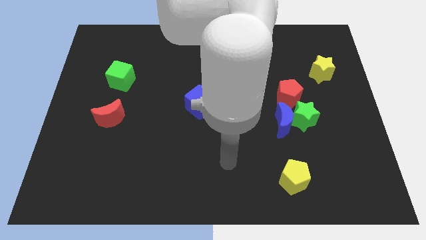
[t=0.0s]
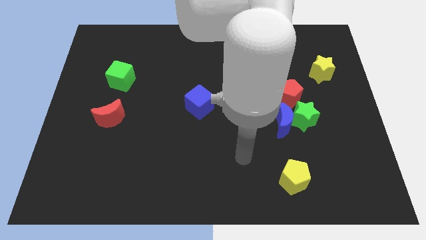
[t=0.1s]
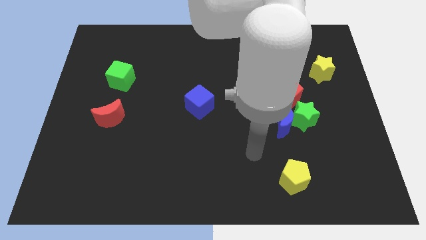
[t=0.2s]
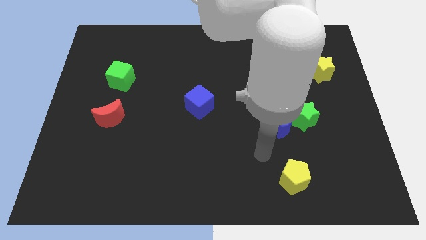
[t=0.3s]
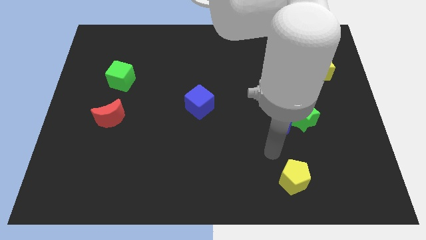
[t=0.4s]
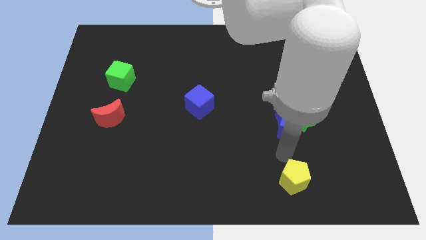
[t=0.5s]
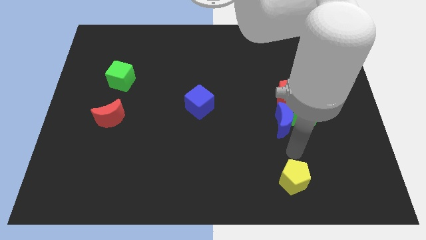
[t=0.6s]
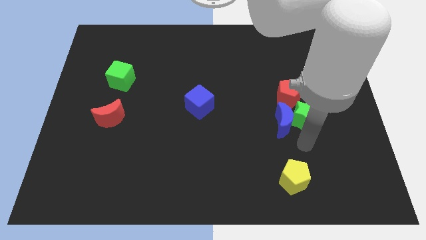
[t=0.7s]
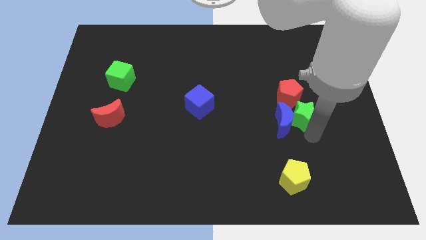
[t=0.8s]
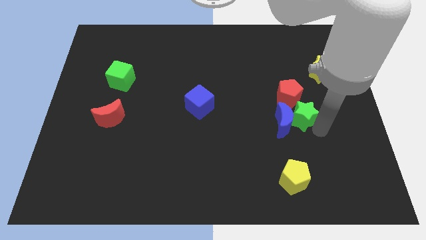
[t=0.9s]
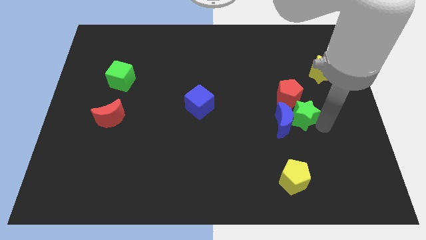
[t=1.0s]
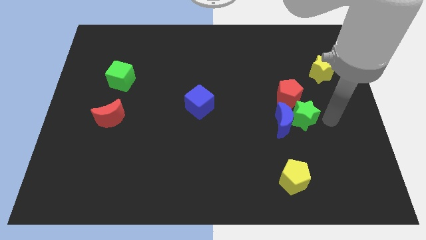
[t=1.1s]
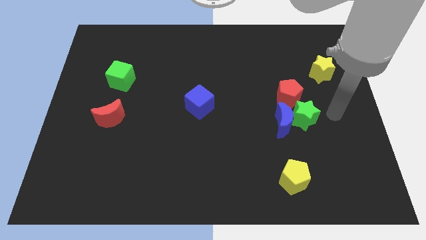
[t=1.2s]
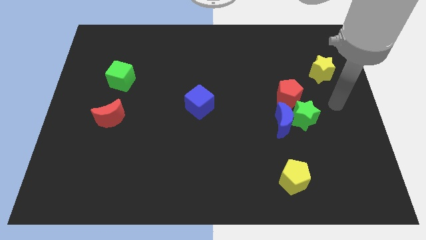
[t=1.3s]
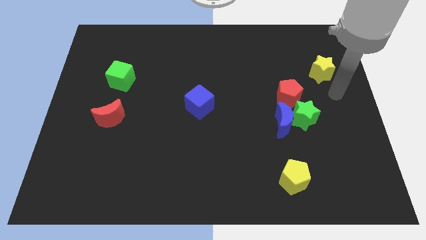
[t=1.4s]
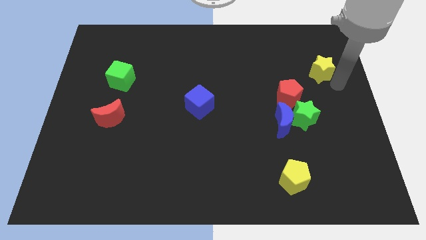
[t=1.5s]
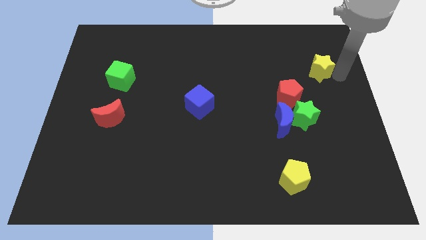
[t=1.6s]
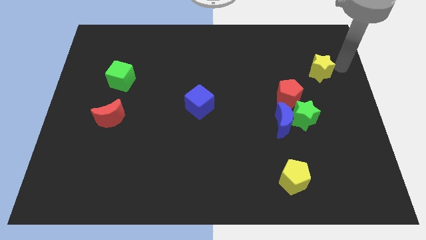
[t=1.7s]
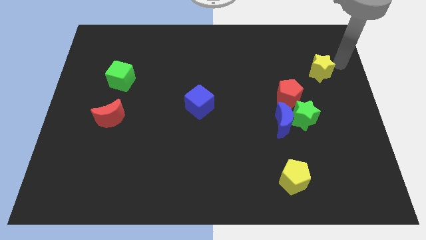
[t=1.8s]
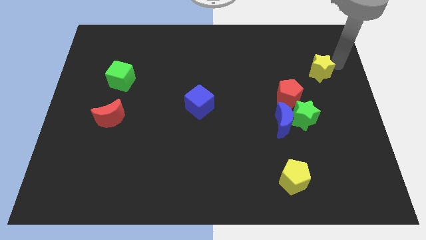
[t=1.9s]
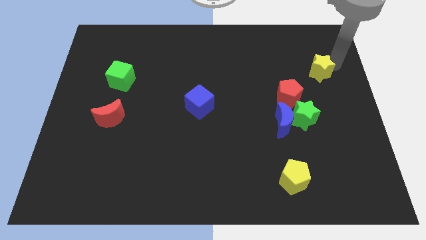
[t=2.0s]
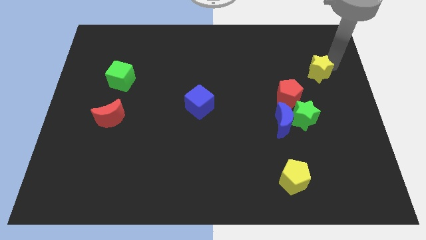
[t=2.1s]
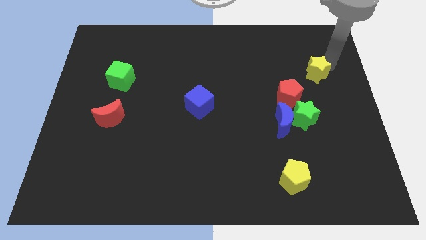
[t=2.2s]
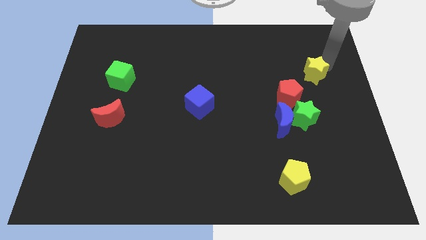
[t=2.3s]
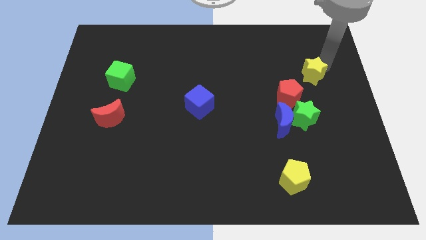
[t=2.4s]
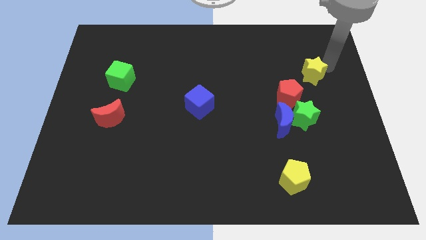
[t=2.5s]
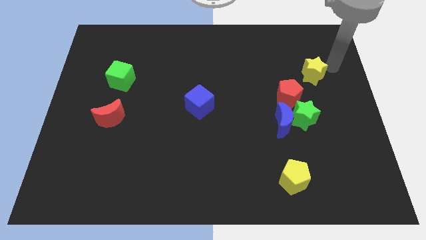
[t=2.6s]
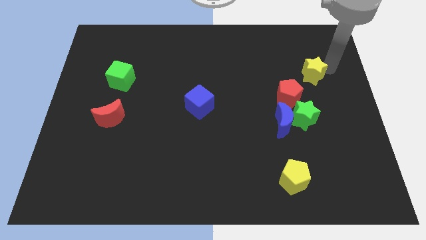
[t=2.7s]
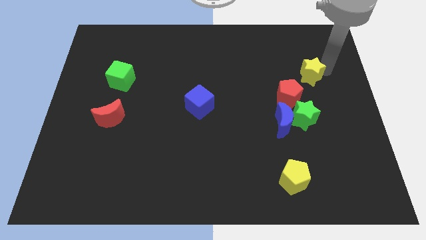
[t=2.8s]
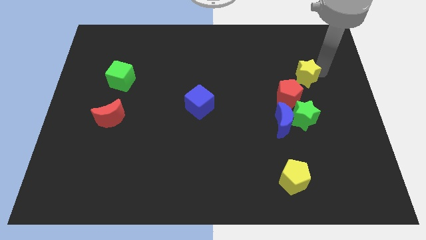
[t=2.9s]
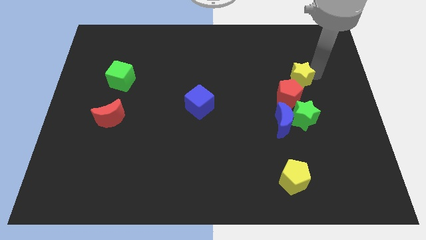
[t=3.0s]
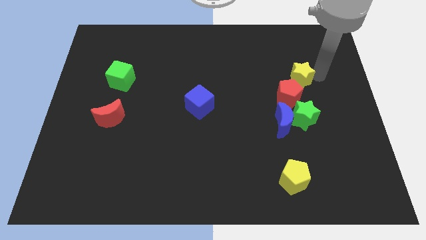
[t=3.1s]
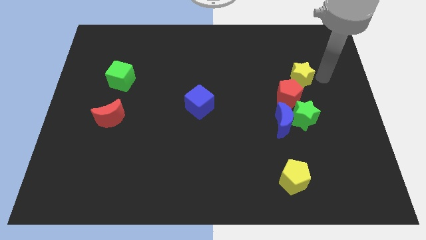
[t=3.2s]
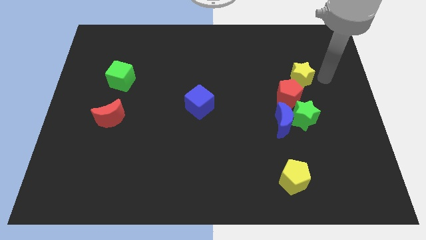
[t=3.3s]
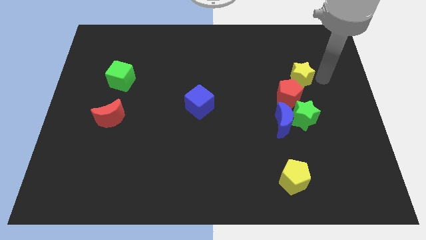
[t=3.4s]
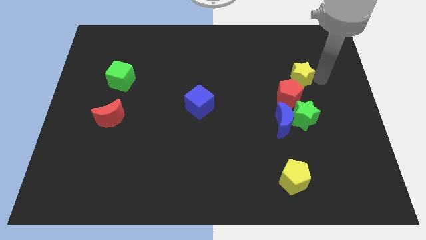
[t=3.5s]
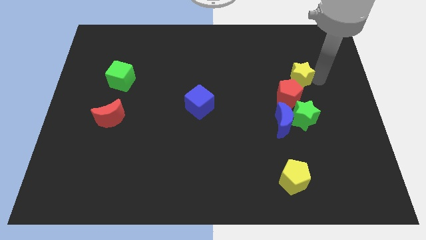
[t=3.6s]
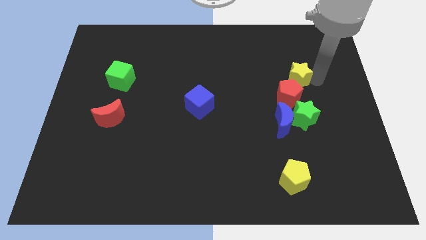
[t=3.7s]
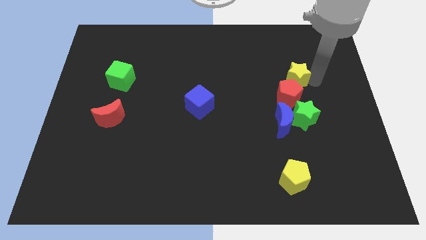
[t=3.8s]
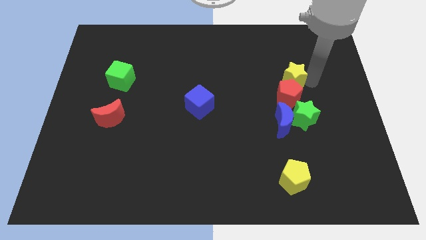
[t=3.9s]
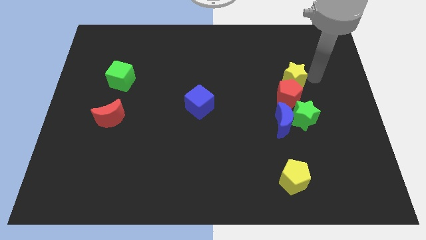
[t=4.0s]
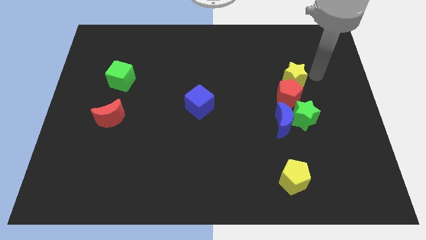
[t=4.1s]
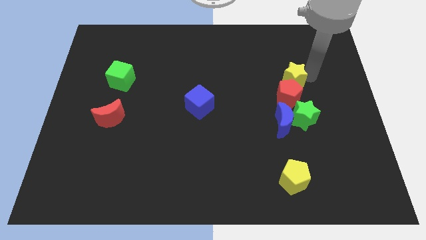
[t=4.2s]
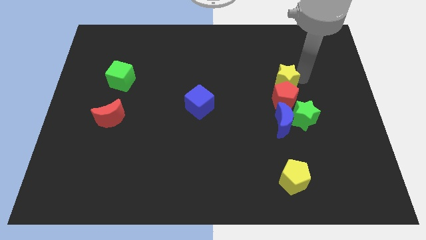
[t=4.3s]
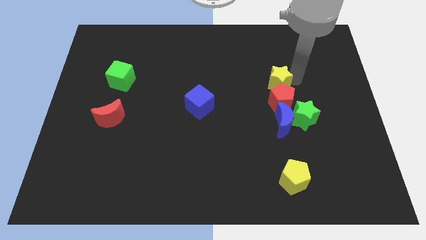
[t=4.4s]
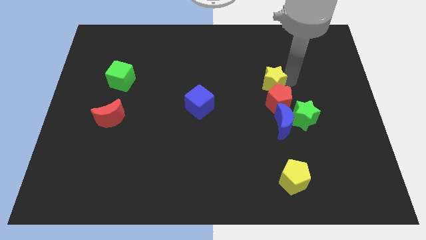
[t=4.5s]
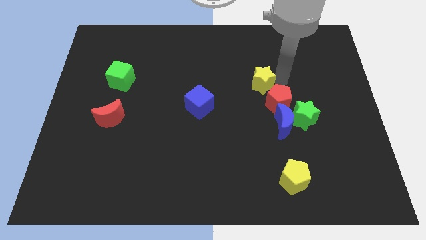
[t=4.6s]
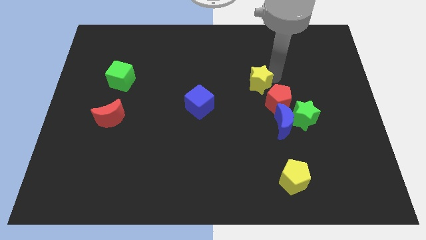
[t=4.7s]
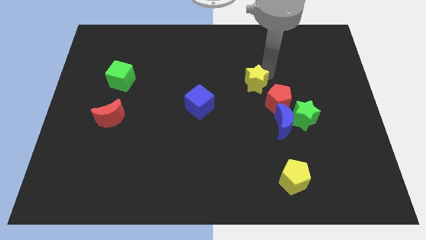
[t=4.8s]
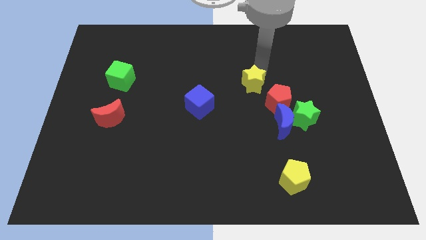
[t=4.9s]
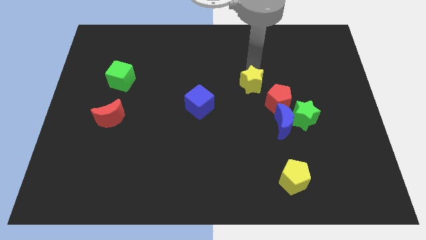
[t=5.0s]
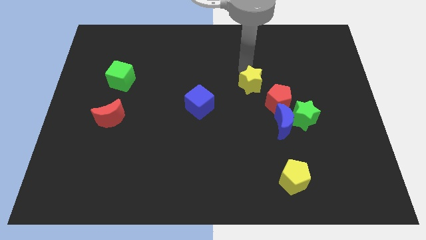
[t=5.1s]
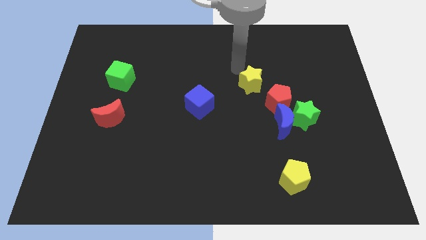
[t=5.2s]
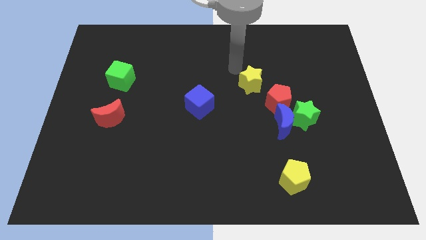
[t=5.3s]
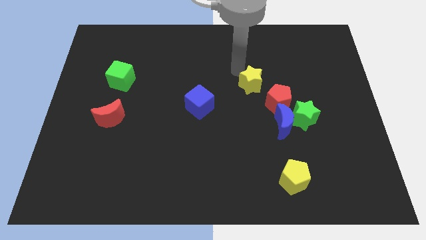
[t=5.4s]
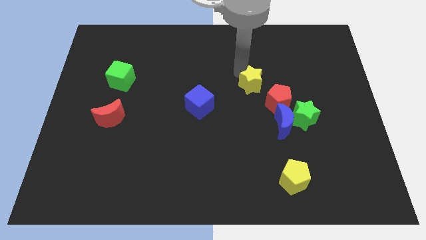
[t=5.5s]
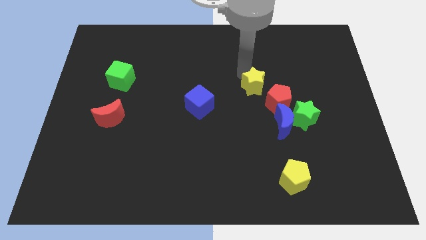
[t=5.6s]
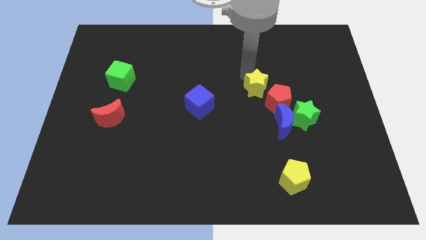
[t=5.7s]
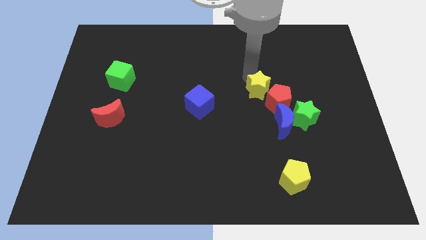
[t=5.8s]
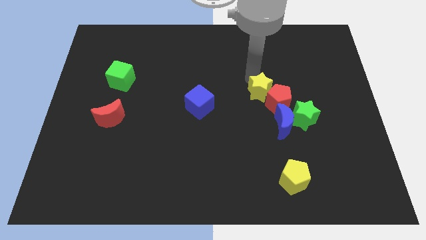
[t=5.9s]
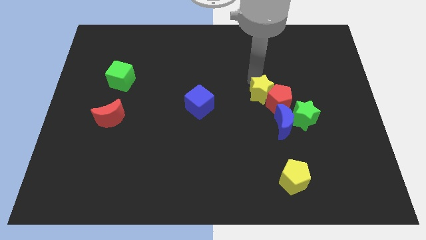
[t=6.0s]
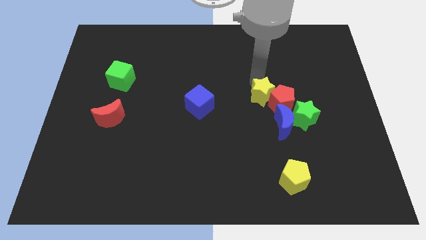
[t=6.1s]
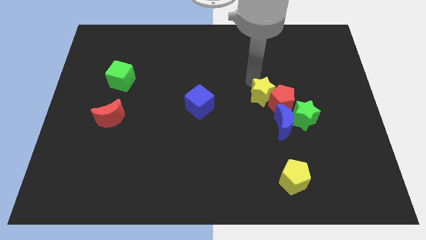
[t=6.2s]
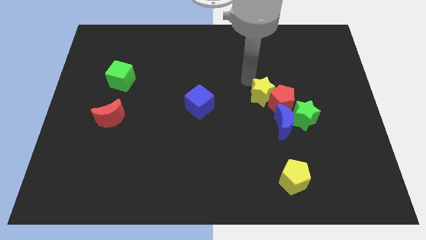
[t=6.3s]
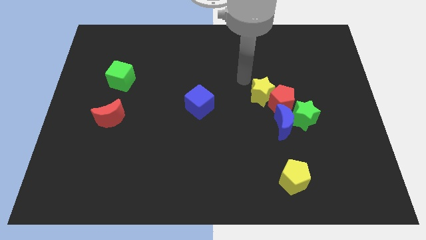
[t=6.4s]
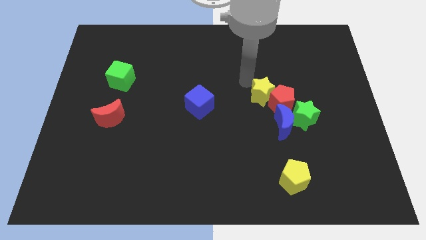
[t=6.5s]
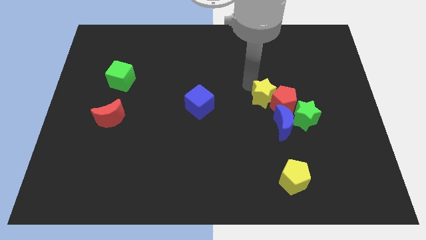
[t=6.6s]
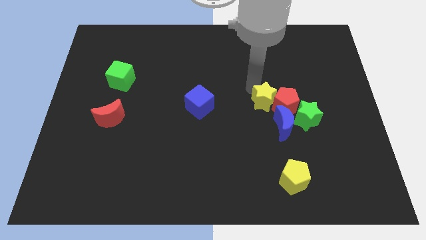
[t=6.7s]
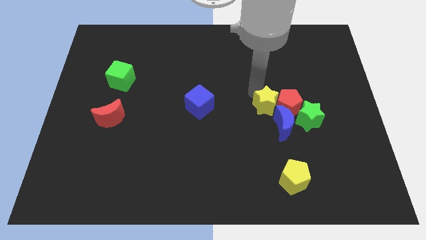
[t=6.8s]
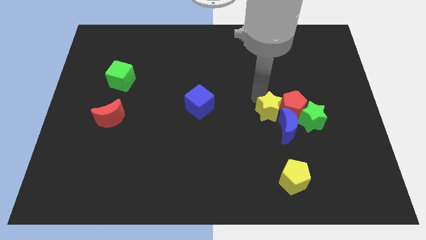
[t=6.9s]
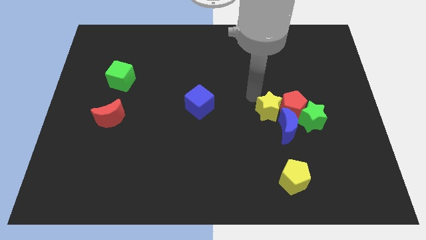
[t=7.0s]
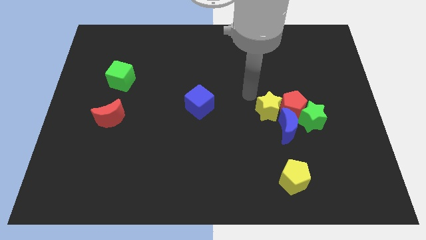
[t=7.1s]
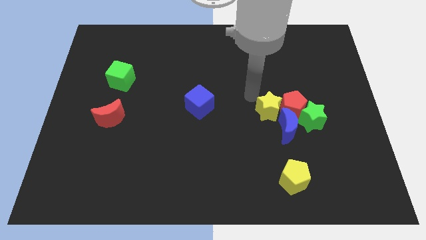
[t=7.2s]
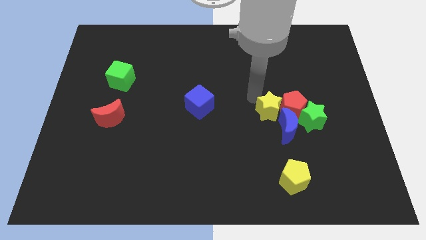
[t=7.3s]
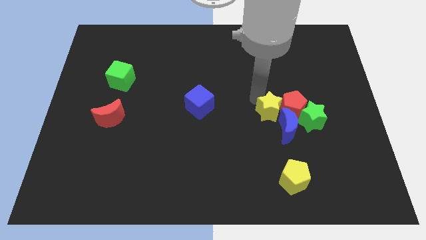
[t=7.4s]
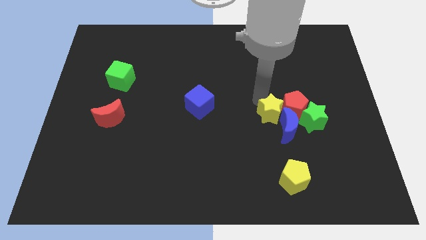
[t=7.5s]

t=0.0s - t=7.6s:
move the yellow star to the blue moon
